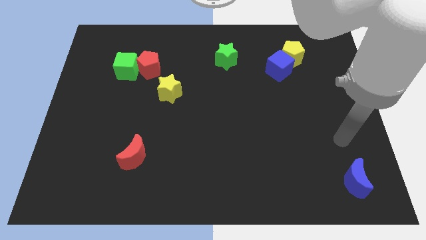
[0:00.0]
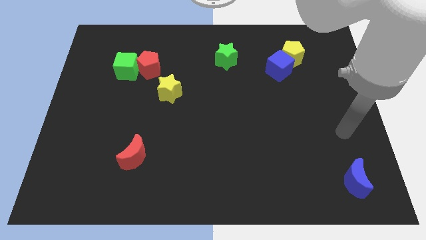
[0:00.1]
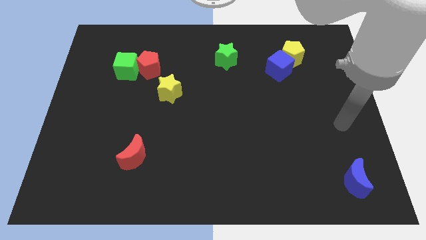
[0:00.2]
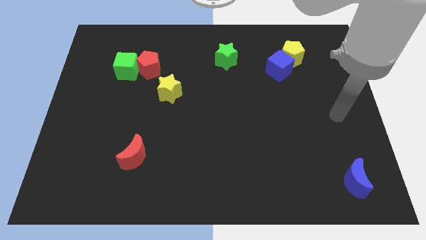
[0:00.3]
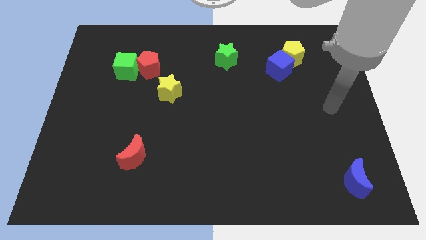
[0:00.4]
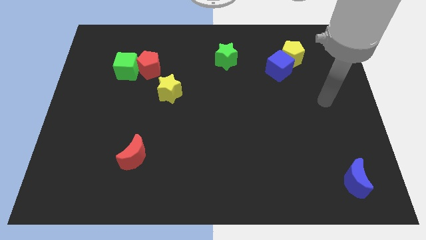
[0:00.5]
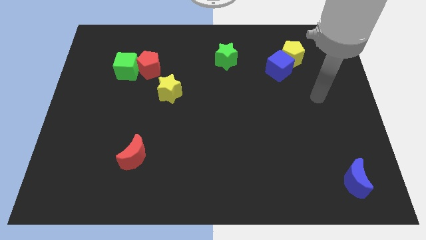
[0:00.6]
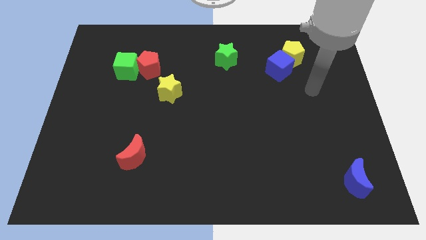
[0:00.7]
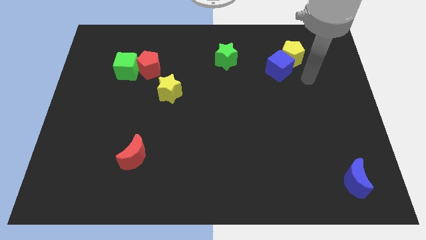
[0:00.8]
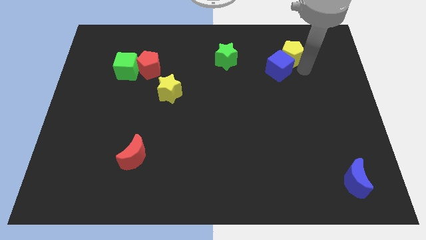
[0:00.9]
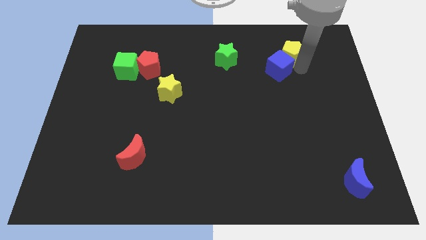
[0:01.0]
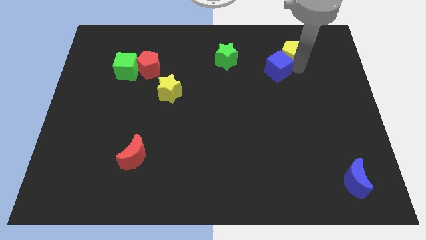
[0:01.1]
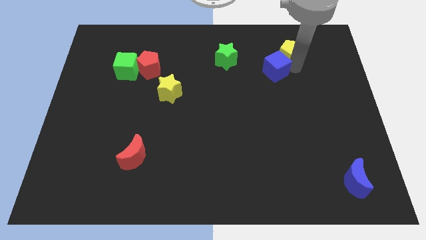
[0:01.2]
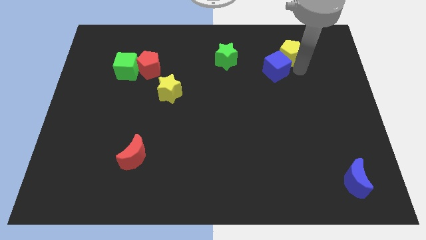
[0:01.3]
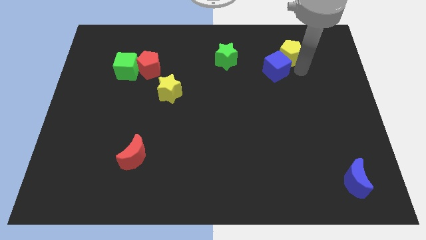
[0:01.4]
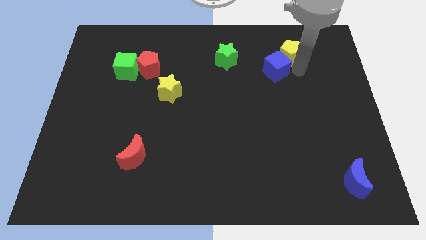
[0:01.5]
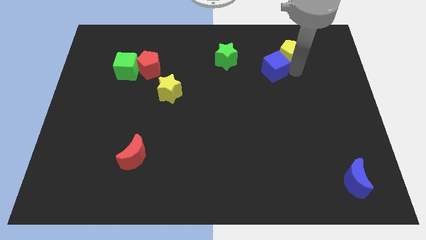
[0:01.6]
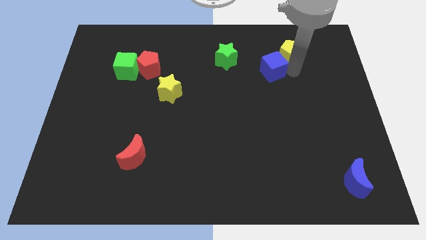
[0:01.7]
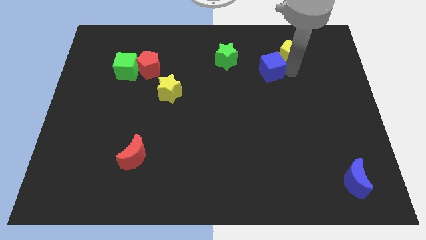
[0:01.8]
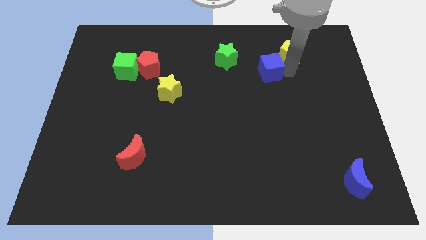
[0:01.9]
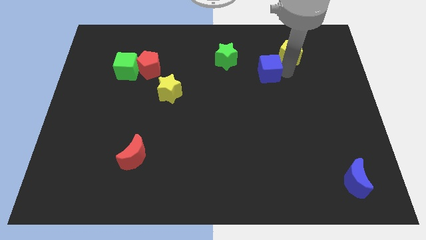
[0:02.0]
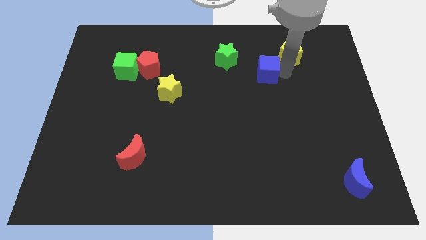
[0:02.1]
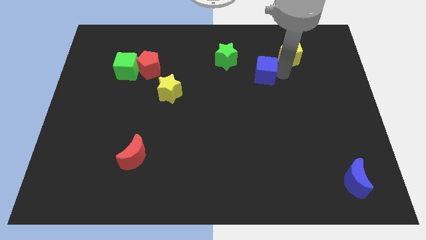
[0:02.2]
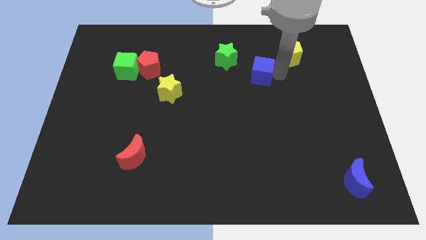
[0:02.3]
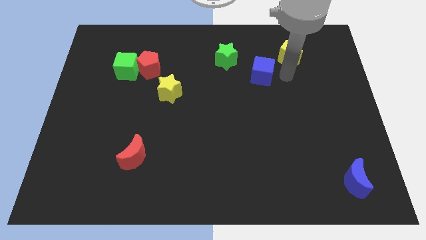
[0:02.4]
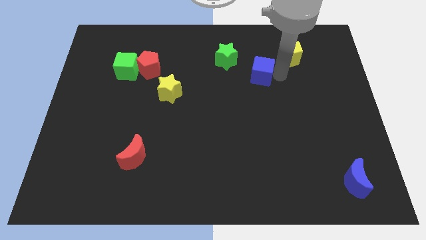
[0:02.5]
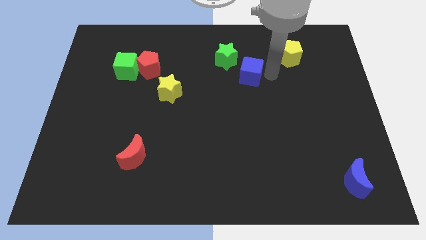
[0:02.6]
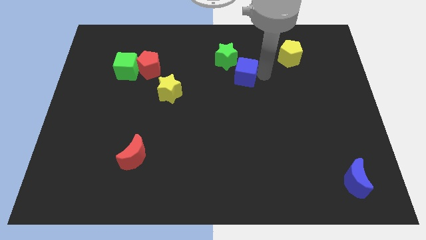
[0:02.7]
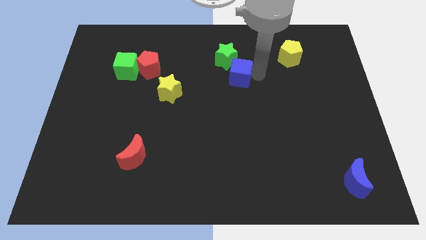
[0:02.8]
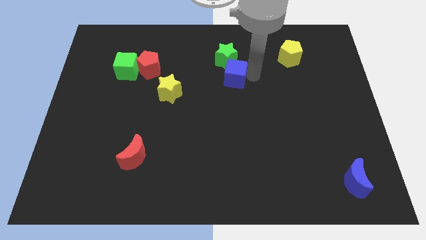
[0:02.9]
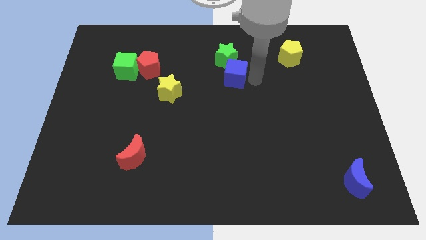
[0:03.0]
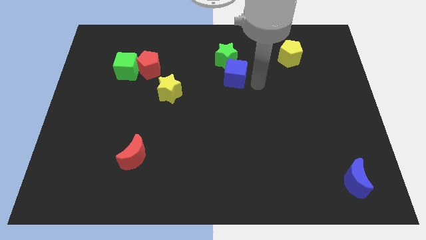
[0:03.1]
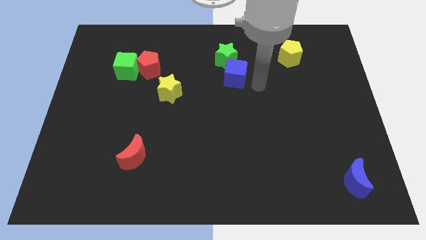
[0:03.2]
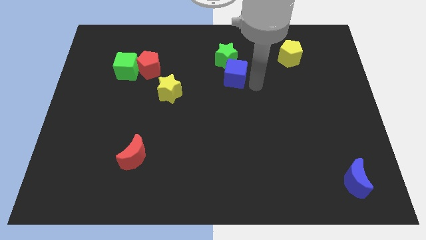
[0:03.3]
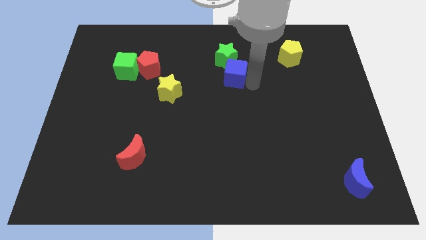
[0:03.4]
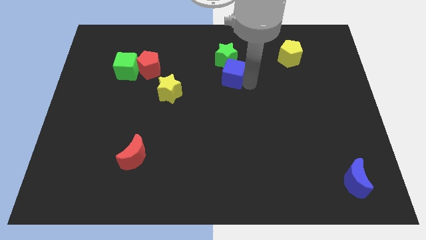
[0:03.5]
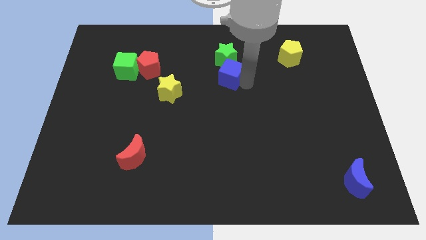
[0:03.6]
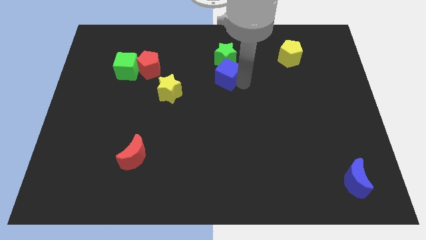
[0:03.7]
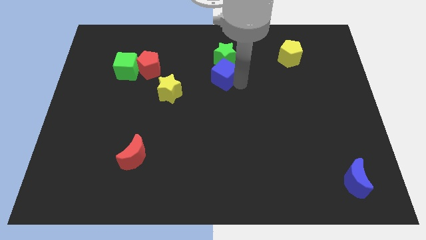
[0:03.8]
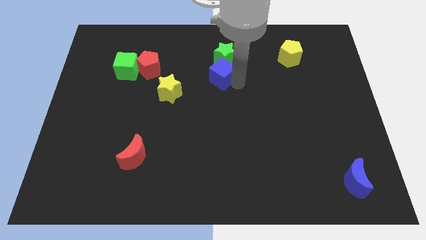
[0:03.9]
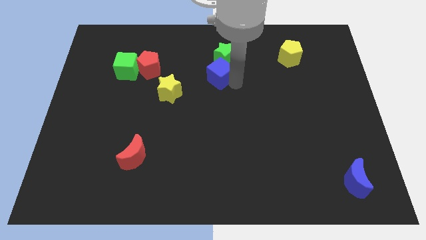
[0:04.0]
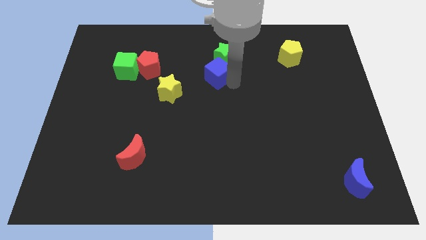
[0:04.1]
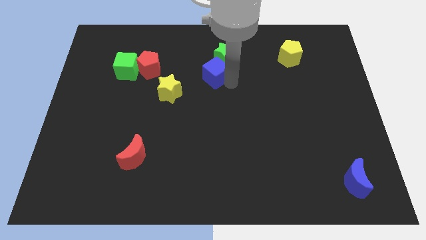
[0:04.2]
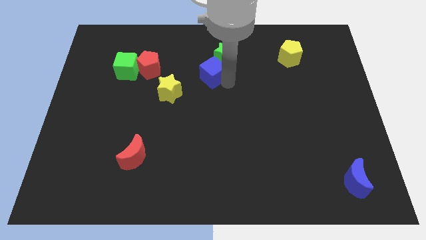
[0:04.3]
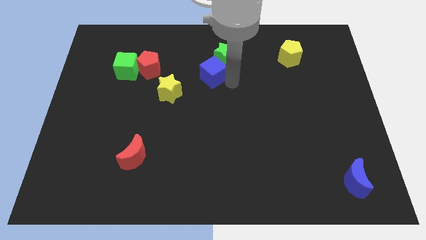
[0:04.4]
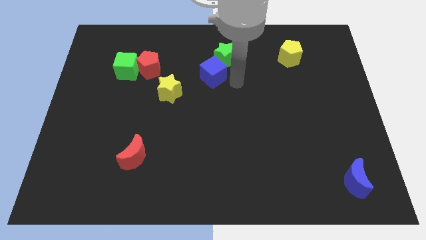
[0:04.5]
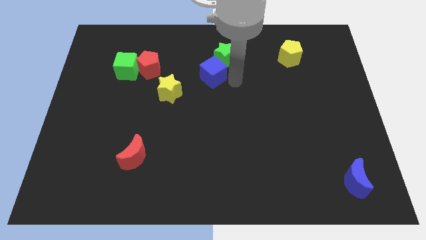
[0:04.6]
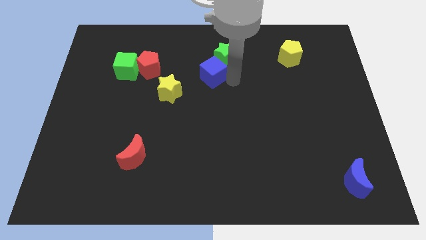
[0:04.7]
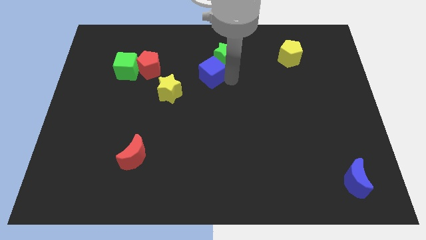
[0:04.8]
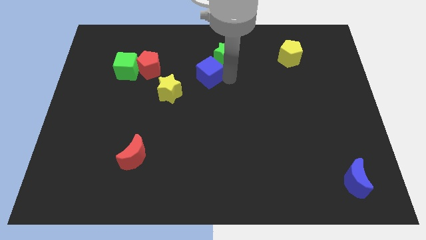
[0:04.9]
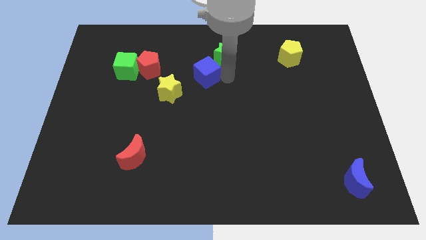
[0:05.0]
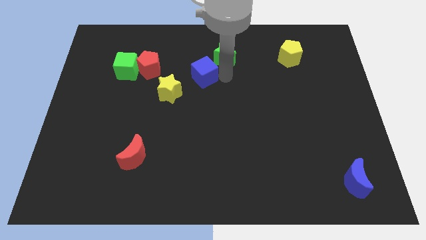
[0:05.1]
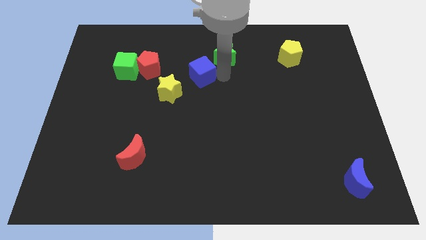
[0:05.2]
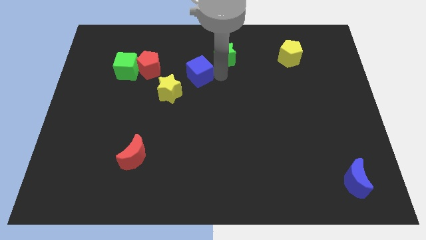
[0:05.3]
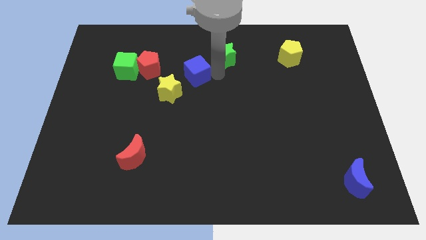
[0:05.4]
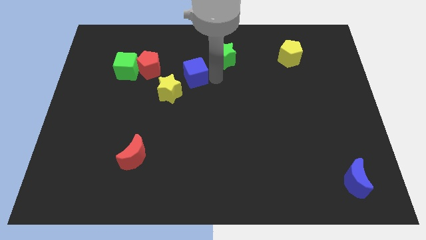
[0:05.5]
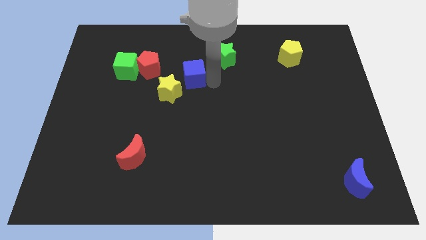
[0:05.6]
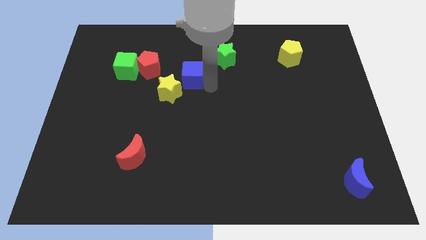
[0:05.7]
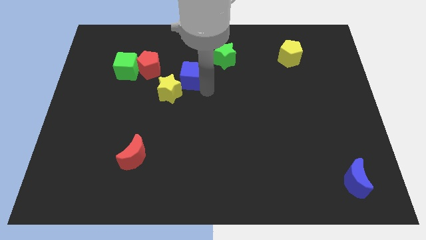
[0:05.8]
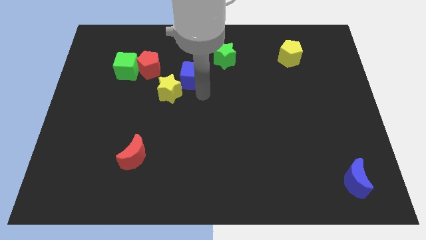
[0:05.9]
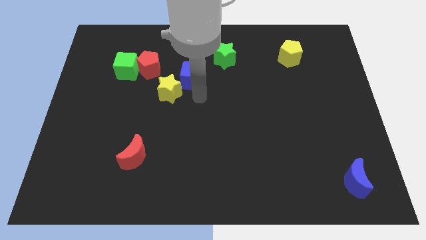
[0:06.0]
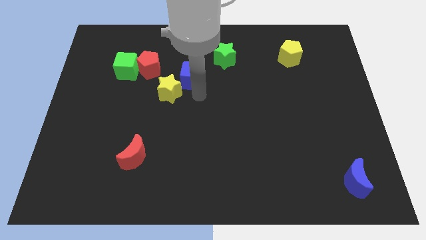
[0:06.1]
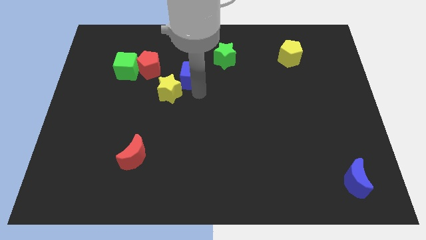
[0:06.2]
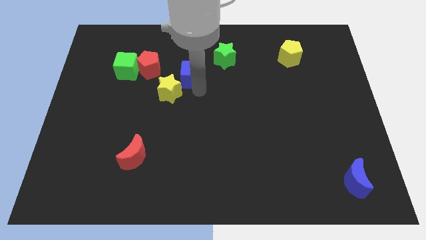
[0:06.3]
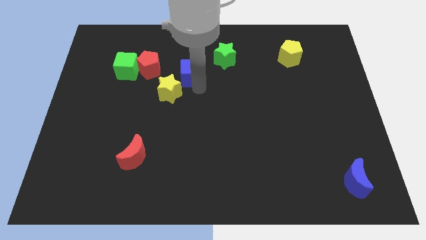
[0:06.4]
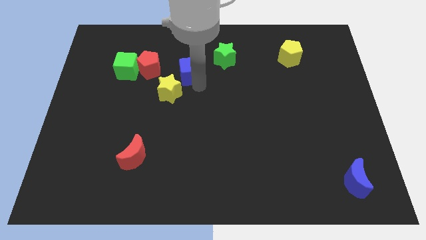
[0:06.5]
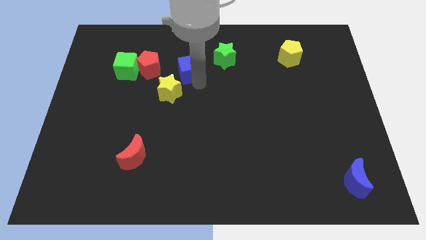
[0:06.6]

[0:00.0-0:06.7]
put the blue cube left of the green star
